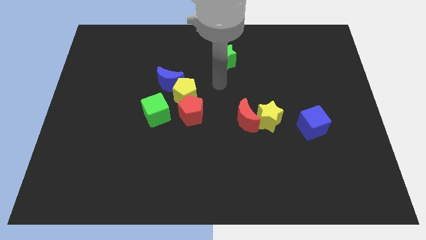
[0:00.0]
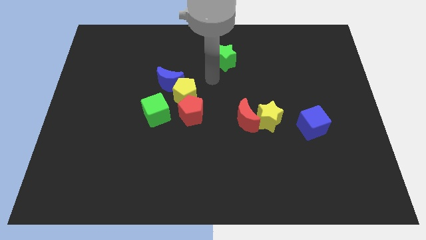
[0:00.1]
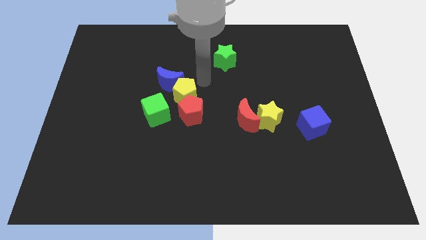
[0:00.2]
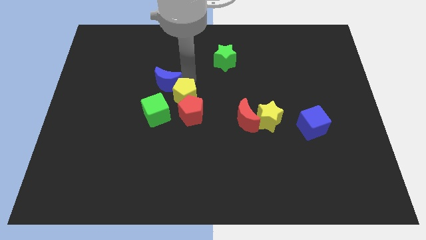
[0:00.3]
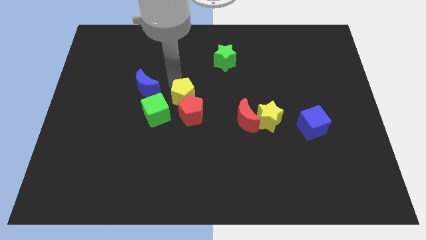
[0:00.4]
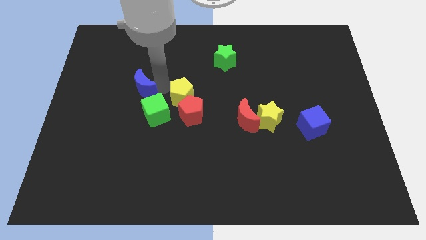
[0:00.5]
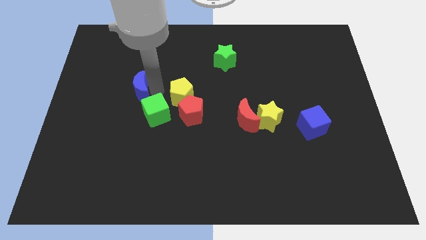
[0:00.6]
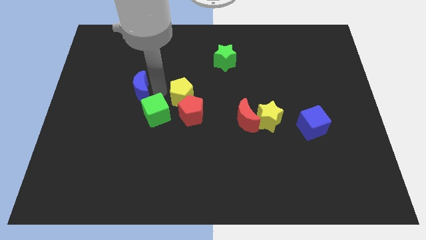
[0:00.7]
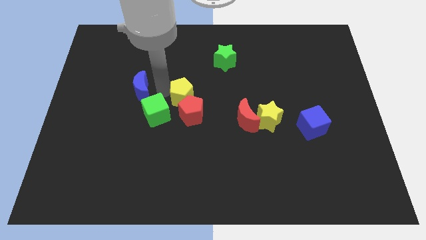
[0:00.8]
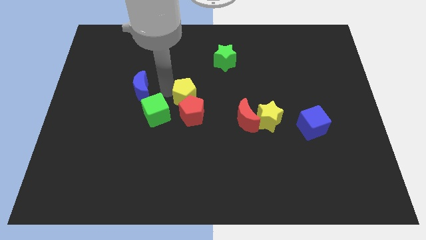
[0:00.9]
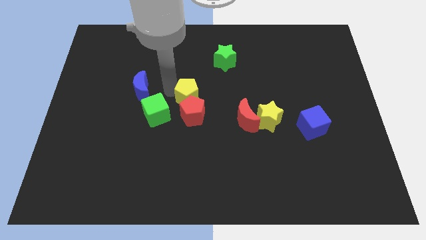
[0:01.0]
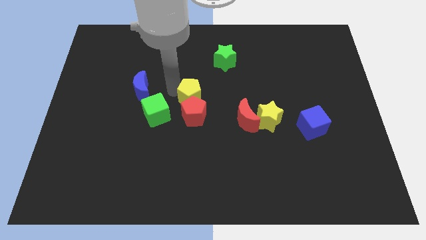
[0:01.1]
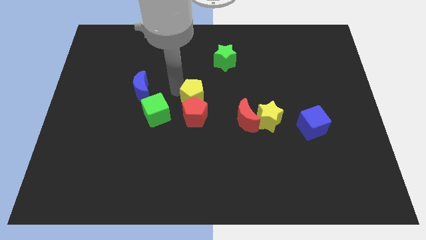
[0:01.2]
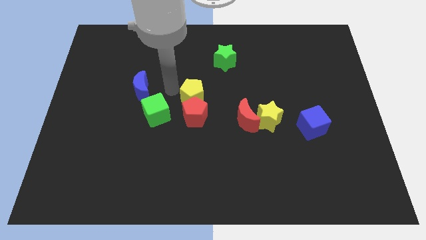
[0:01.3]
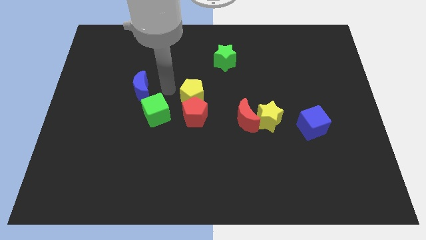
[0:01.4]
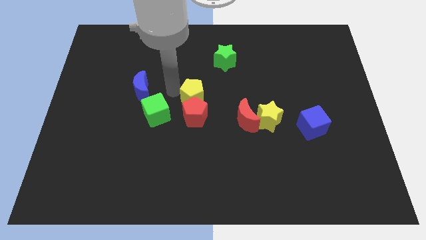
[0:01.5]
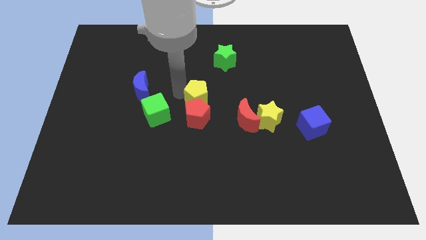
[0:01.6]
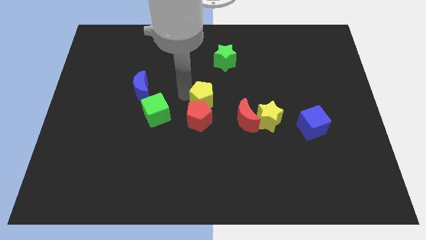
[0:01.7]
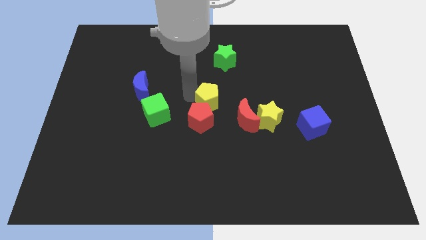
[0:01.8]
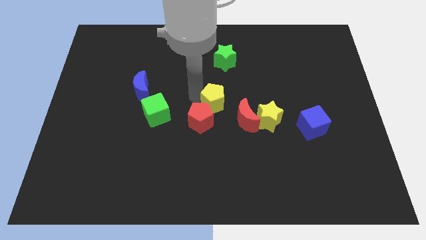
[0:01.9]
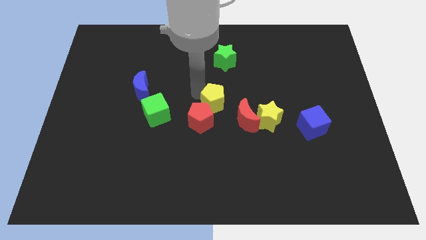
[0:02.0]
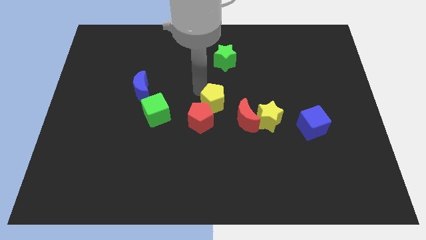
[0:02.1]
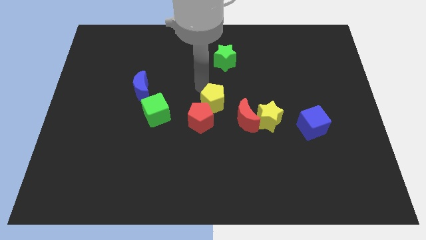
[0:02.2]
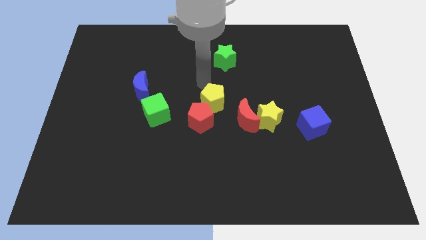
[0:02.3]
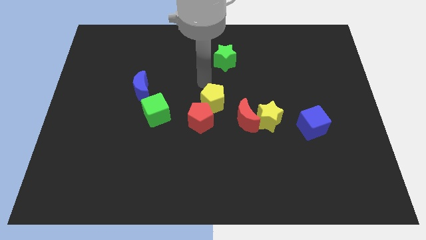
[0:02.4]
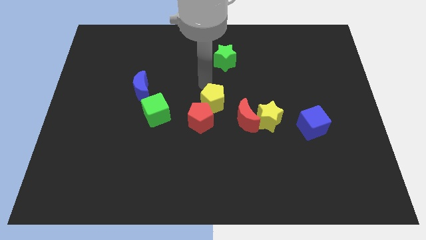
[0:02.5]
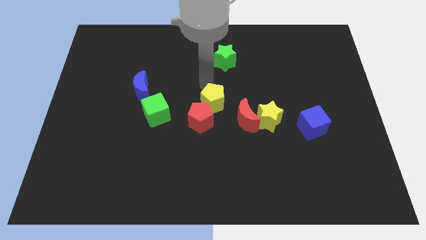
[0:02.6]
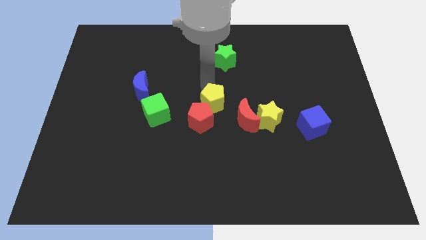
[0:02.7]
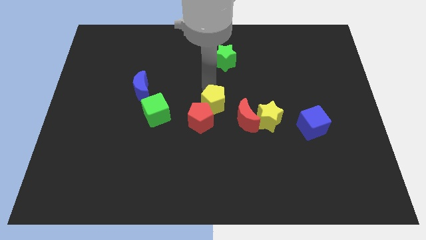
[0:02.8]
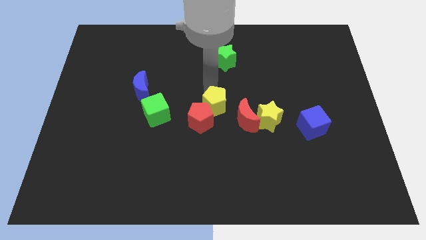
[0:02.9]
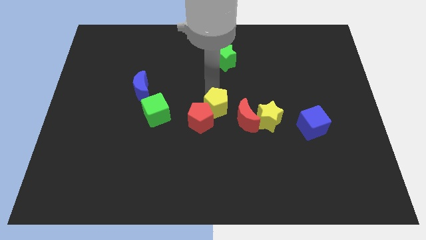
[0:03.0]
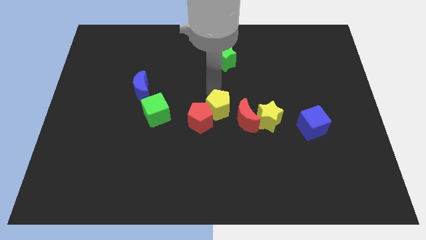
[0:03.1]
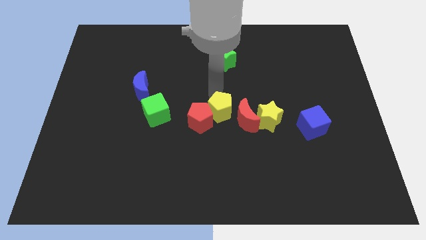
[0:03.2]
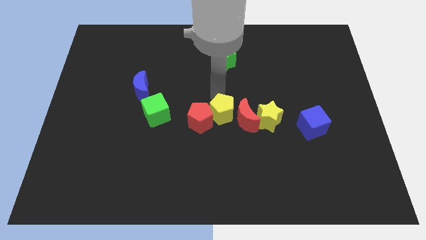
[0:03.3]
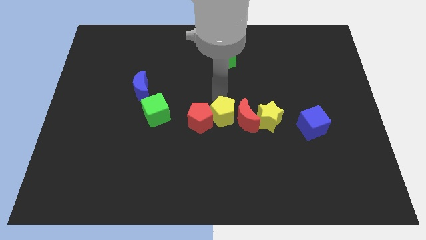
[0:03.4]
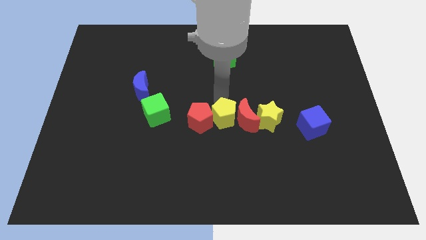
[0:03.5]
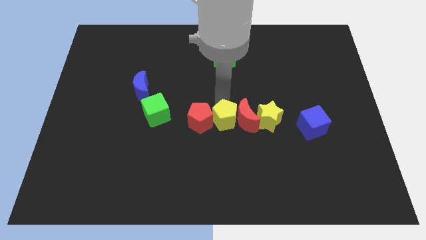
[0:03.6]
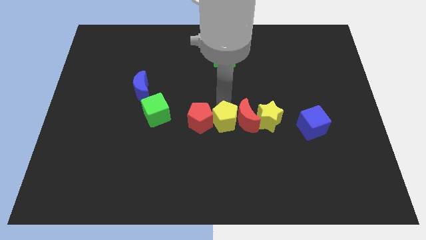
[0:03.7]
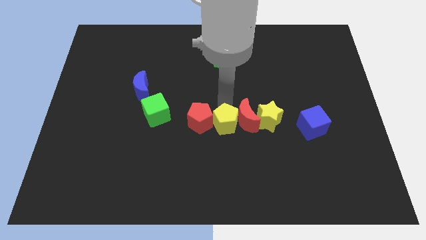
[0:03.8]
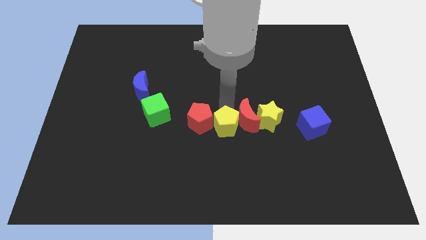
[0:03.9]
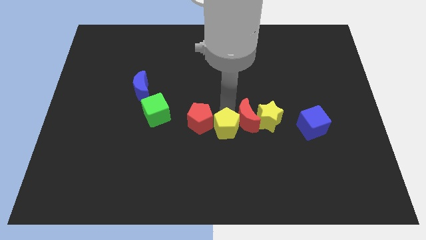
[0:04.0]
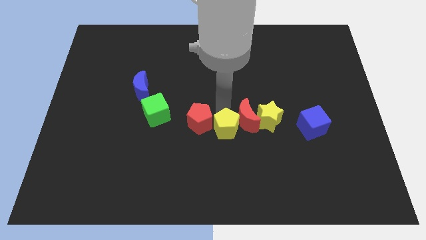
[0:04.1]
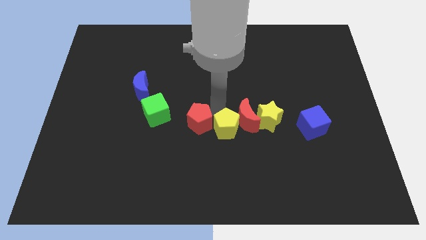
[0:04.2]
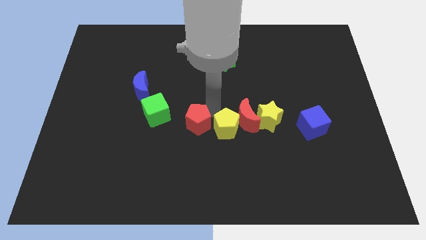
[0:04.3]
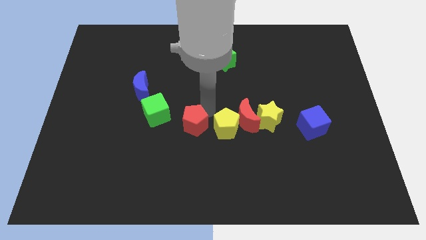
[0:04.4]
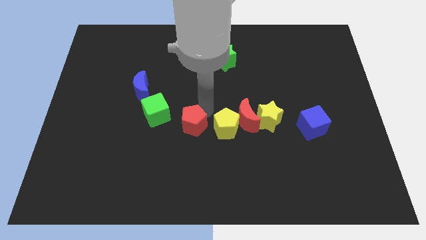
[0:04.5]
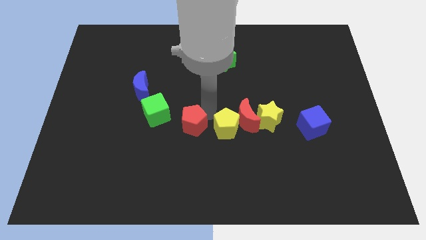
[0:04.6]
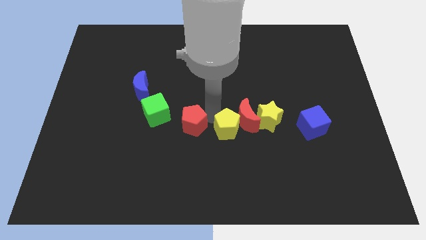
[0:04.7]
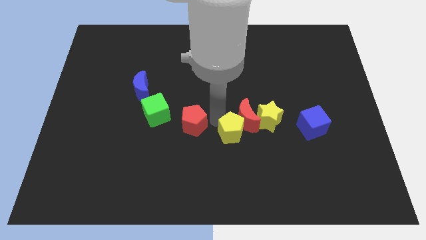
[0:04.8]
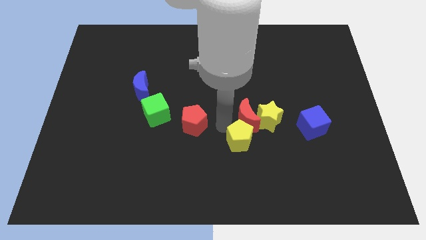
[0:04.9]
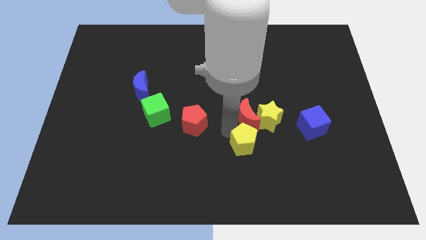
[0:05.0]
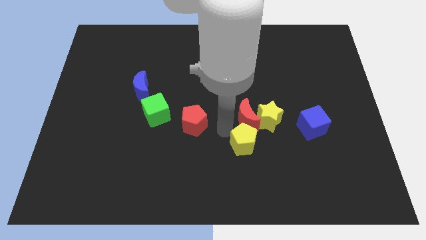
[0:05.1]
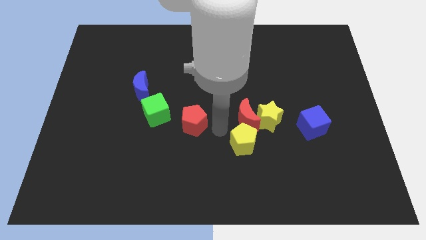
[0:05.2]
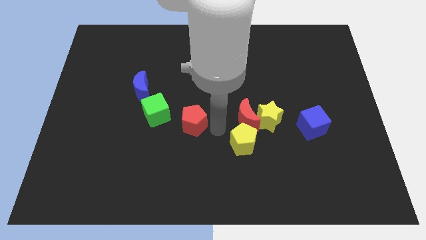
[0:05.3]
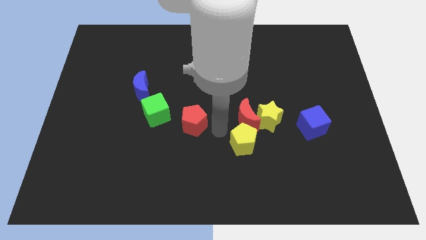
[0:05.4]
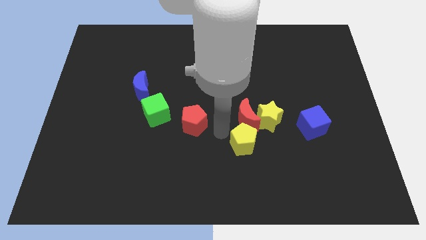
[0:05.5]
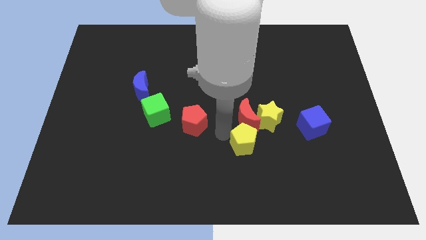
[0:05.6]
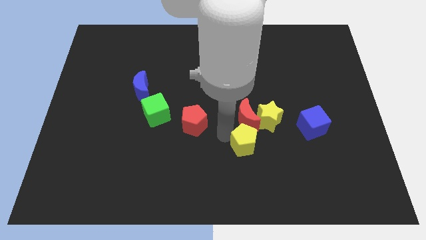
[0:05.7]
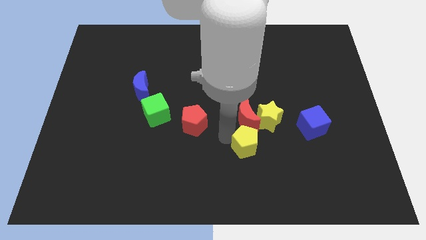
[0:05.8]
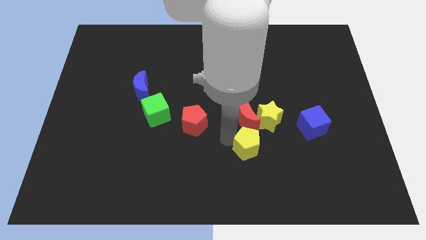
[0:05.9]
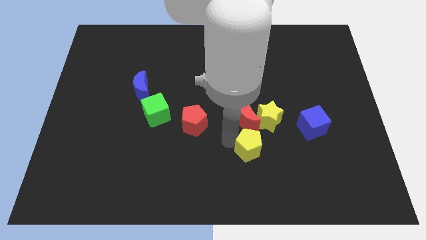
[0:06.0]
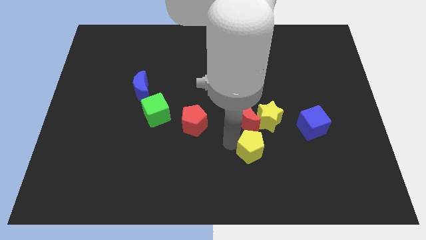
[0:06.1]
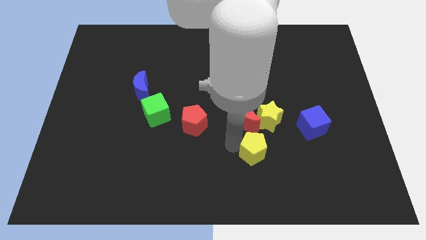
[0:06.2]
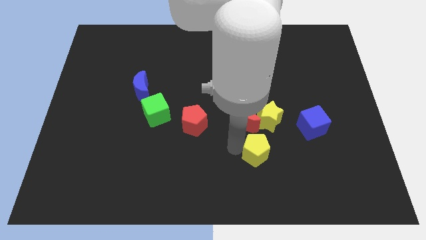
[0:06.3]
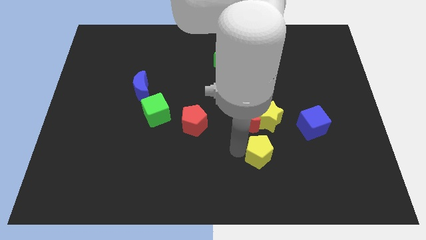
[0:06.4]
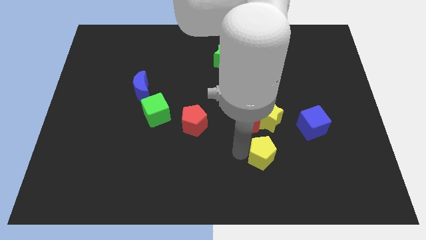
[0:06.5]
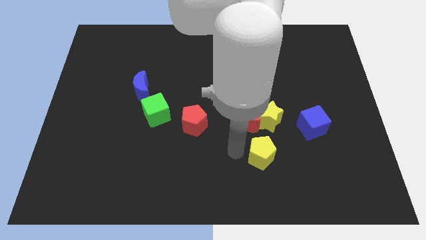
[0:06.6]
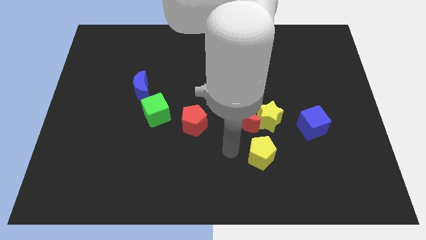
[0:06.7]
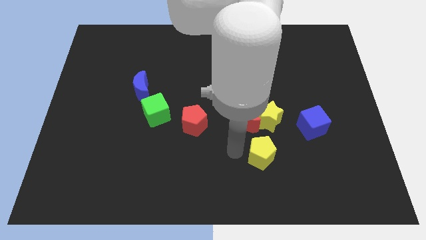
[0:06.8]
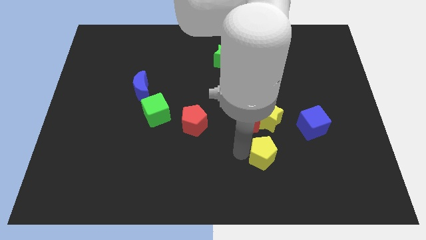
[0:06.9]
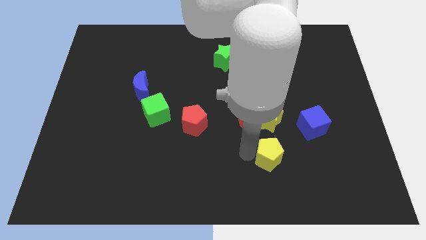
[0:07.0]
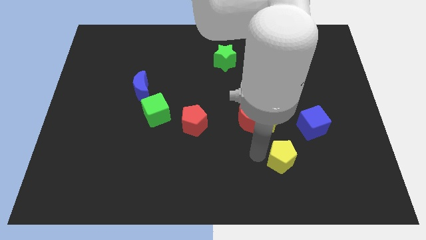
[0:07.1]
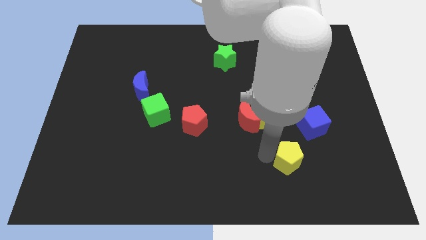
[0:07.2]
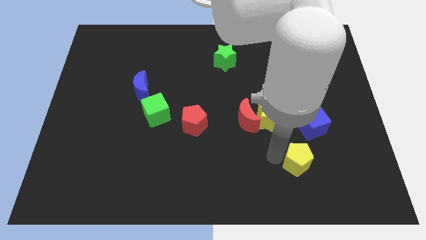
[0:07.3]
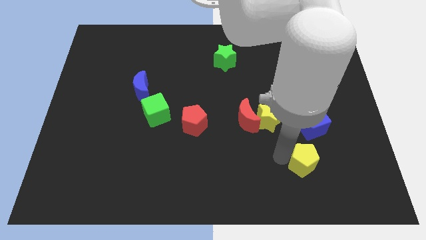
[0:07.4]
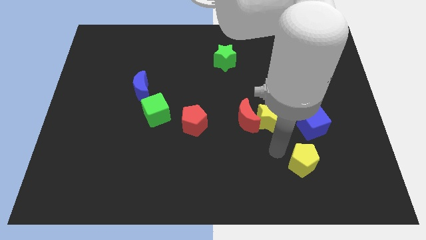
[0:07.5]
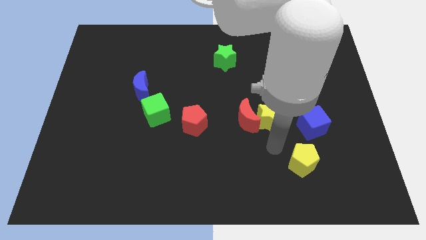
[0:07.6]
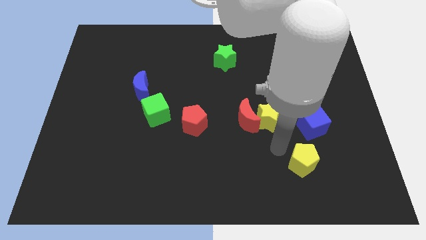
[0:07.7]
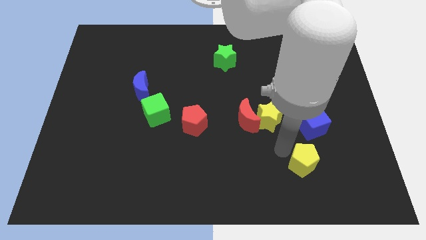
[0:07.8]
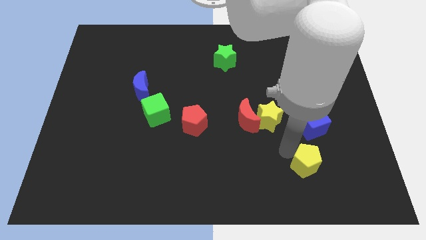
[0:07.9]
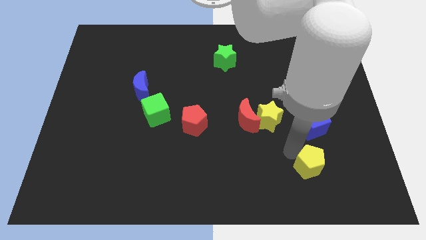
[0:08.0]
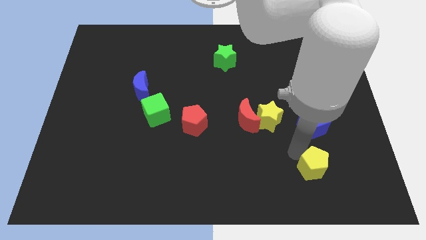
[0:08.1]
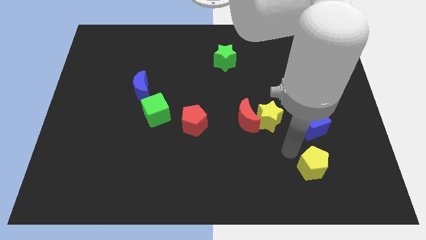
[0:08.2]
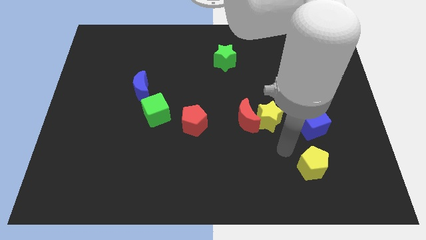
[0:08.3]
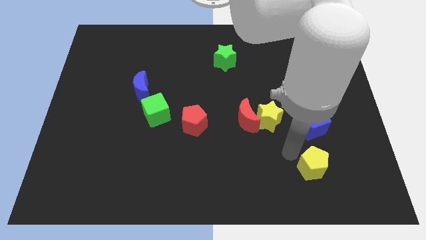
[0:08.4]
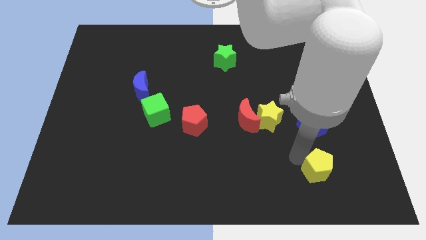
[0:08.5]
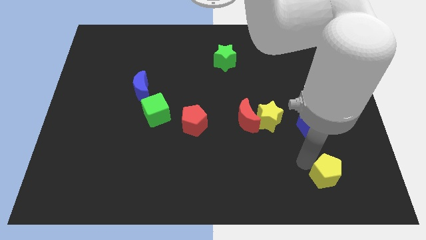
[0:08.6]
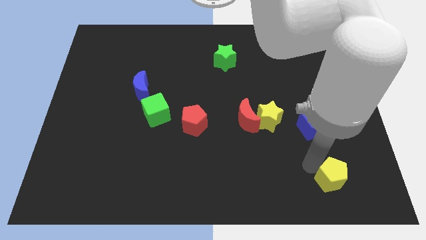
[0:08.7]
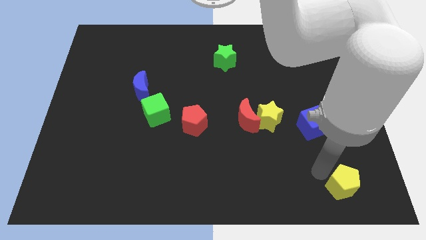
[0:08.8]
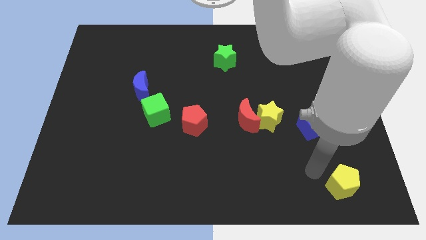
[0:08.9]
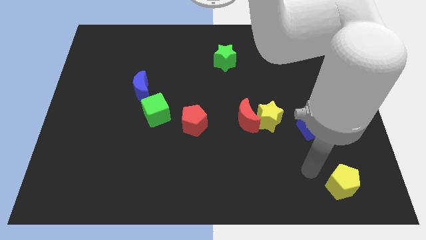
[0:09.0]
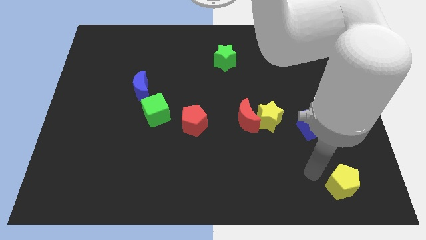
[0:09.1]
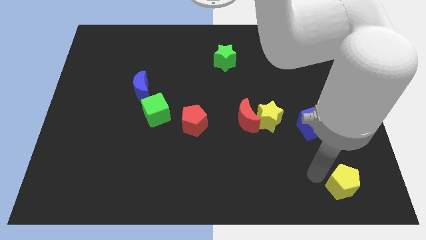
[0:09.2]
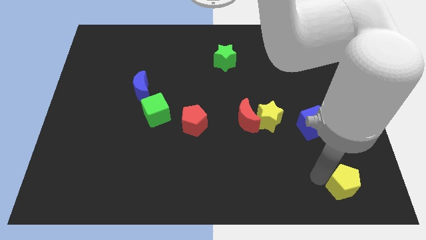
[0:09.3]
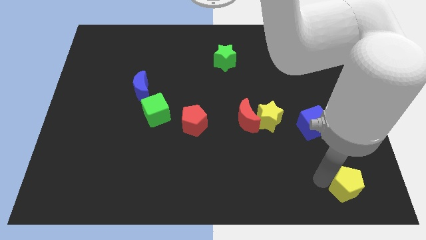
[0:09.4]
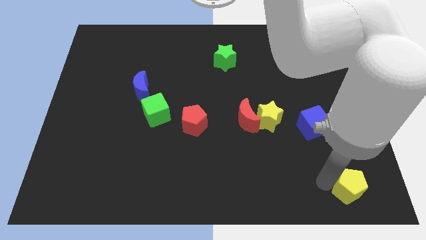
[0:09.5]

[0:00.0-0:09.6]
slide the yellow pentagon to the bottom right corner
